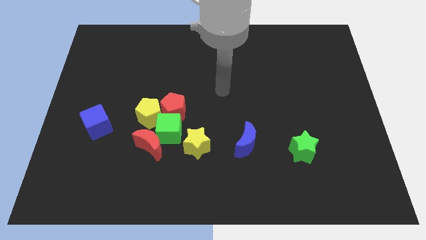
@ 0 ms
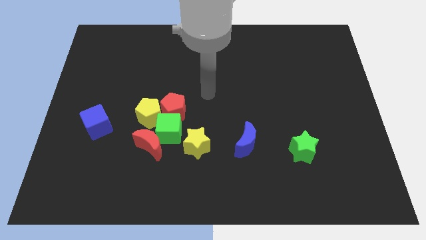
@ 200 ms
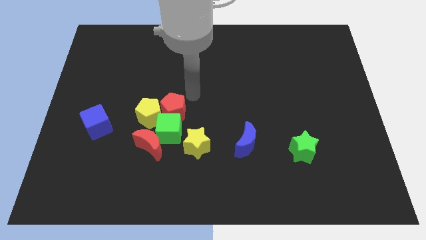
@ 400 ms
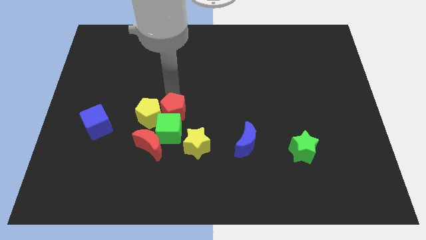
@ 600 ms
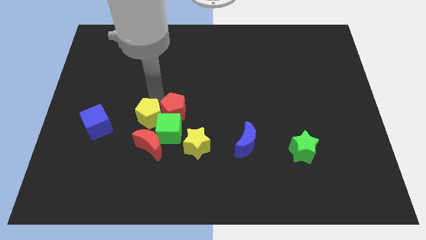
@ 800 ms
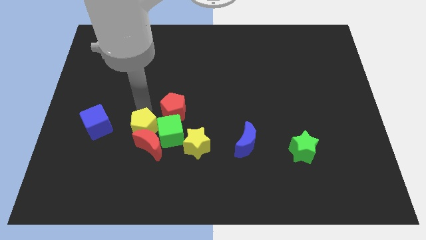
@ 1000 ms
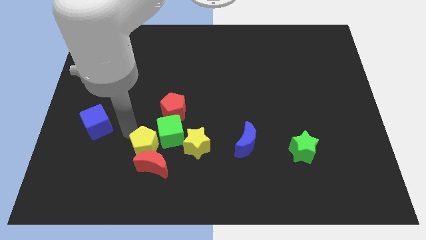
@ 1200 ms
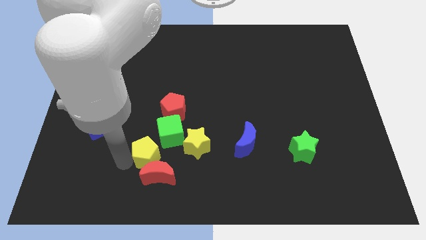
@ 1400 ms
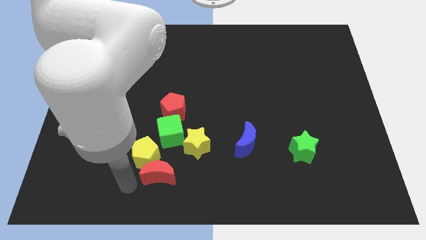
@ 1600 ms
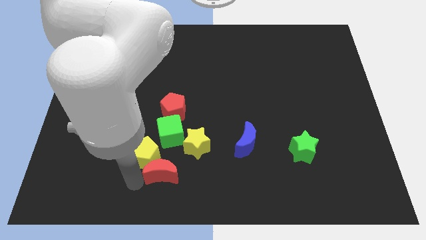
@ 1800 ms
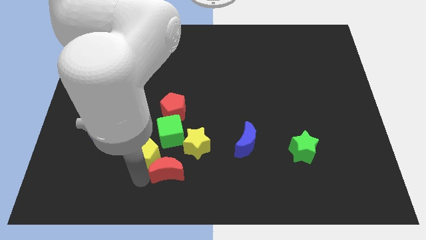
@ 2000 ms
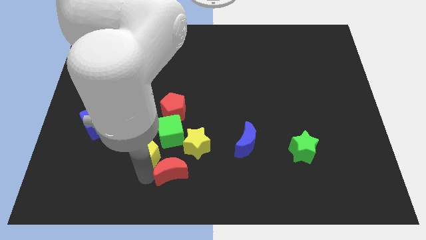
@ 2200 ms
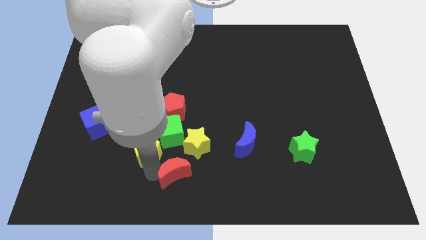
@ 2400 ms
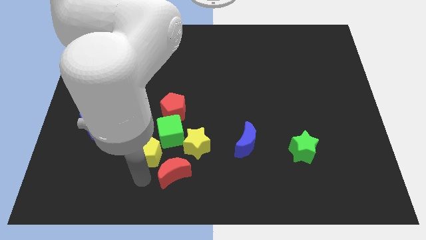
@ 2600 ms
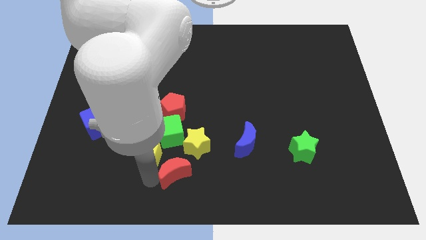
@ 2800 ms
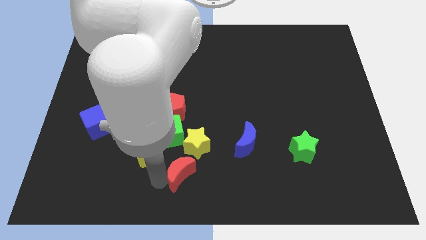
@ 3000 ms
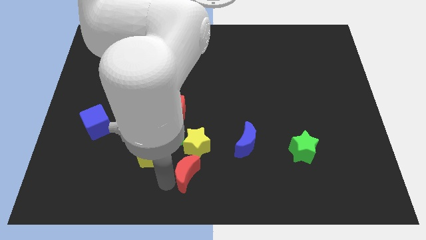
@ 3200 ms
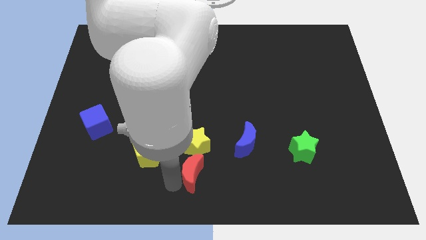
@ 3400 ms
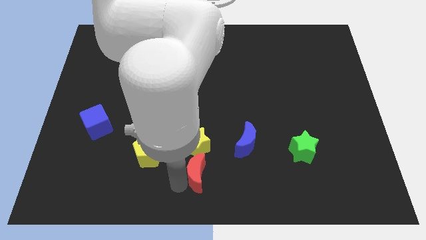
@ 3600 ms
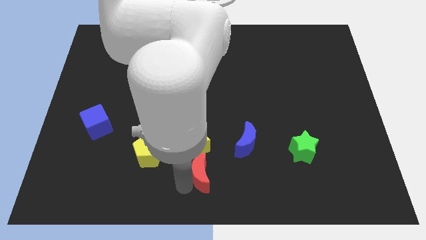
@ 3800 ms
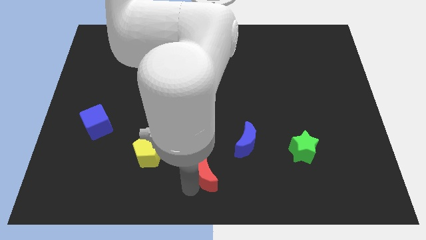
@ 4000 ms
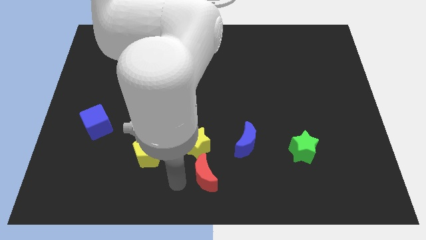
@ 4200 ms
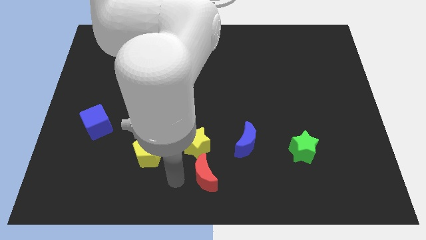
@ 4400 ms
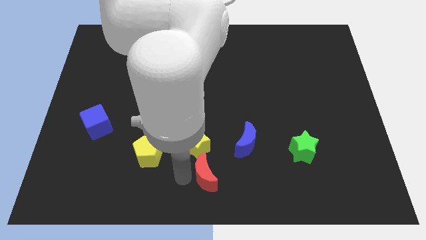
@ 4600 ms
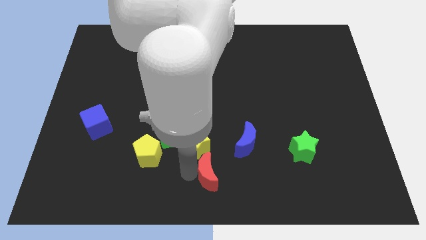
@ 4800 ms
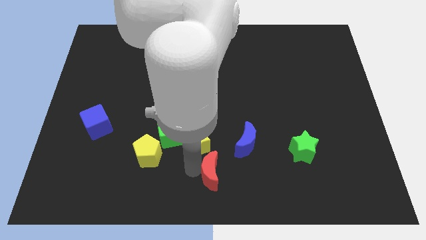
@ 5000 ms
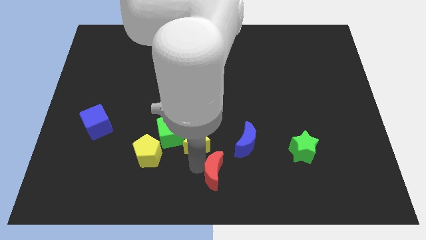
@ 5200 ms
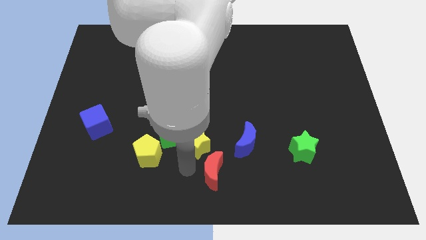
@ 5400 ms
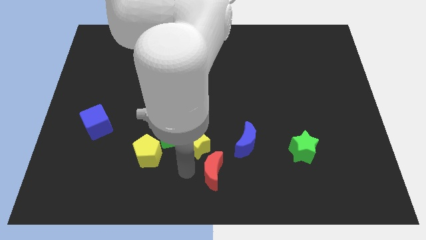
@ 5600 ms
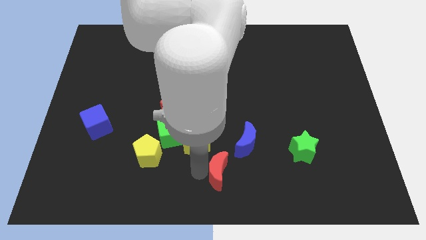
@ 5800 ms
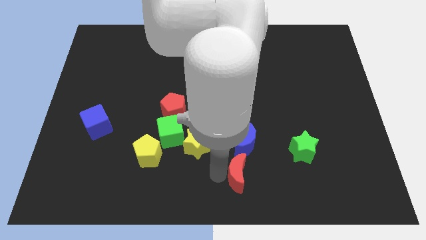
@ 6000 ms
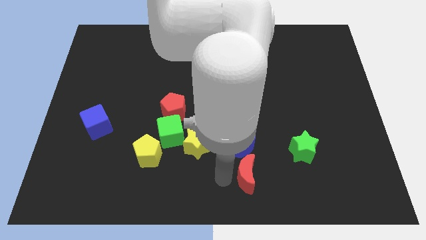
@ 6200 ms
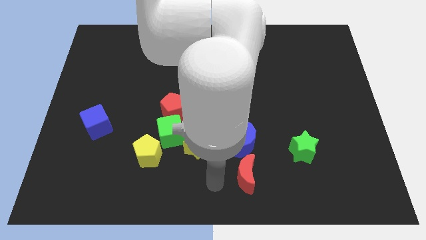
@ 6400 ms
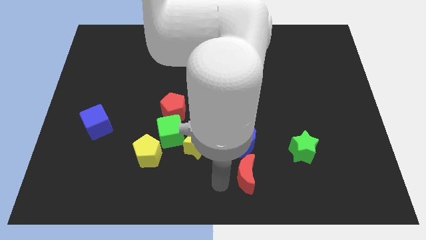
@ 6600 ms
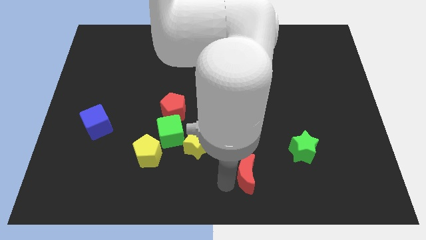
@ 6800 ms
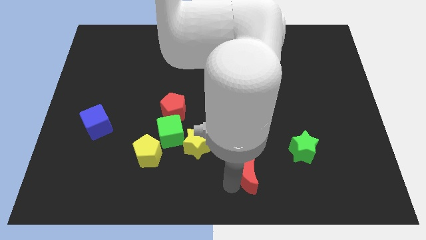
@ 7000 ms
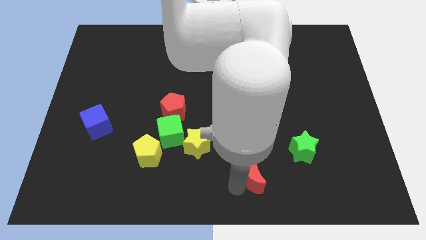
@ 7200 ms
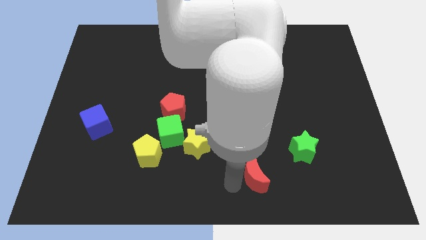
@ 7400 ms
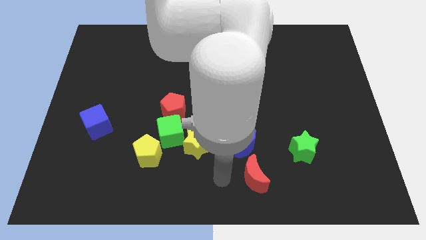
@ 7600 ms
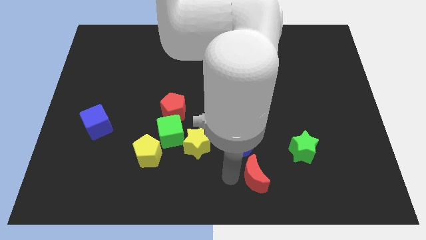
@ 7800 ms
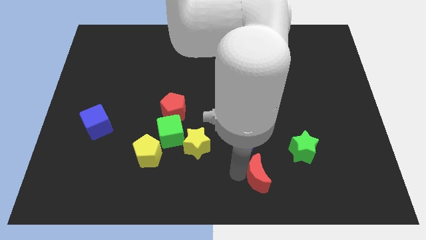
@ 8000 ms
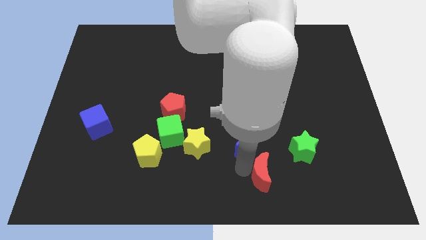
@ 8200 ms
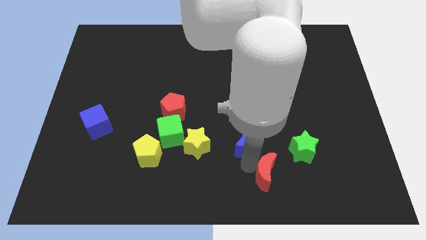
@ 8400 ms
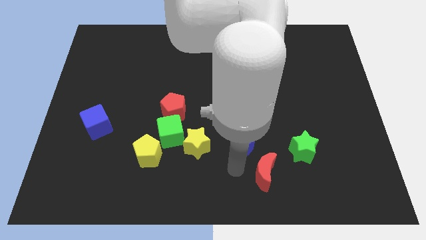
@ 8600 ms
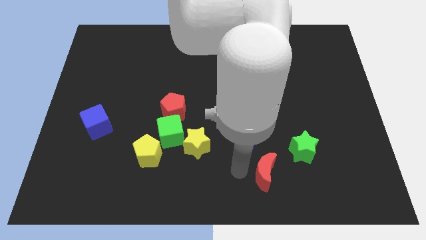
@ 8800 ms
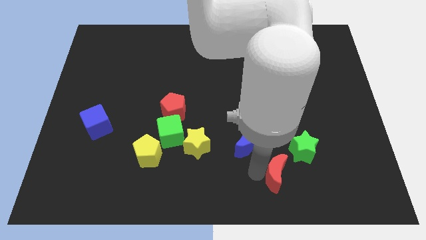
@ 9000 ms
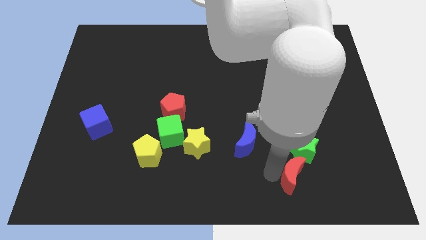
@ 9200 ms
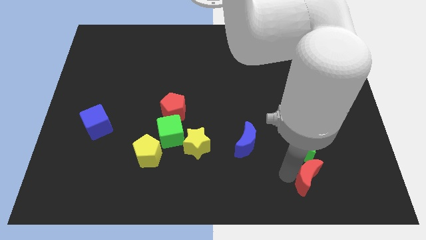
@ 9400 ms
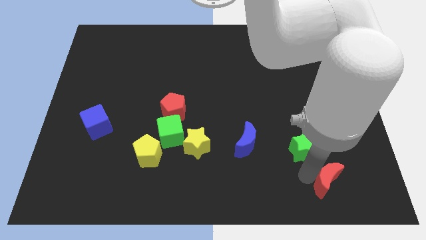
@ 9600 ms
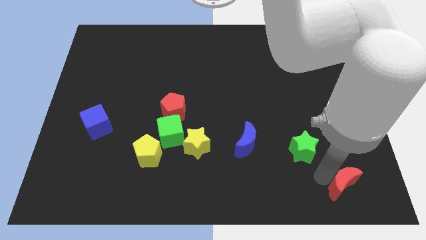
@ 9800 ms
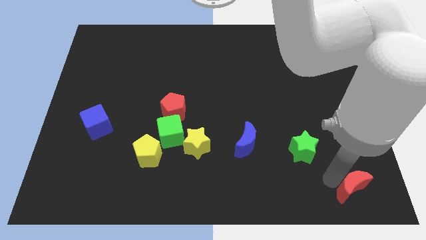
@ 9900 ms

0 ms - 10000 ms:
move the red moon to the bottom right corner

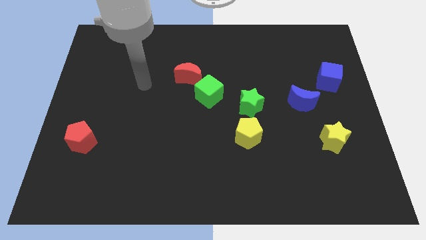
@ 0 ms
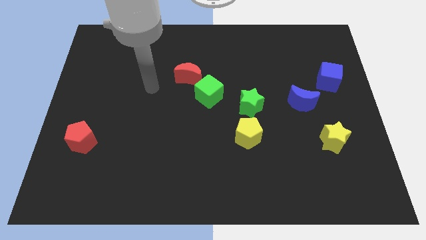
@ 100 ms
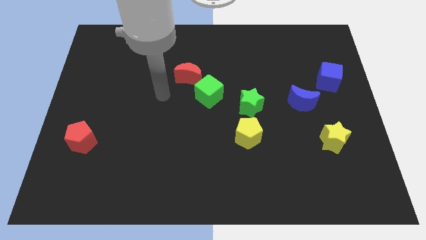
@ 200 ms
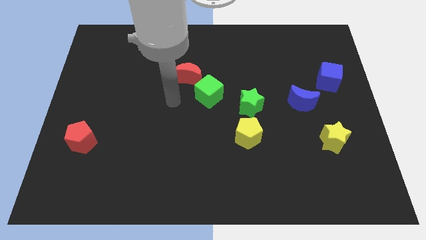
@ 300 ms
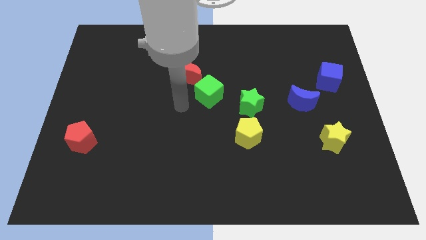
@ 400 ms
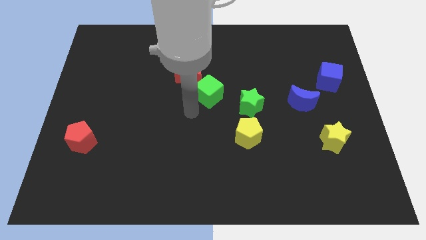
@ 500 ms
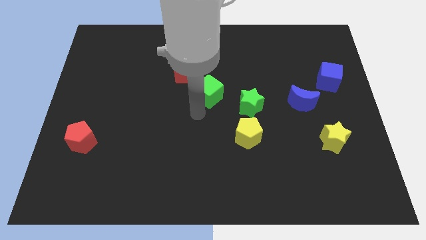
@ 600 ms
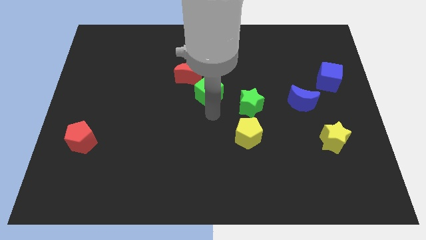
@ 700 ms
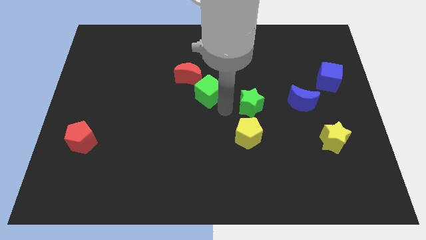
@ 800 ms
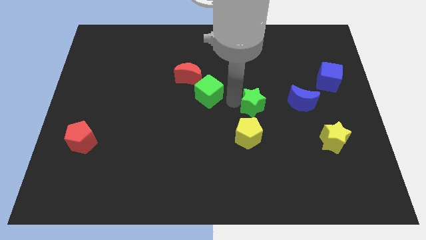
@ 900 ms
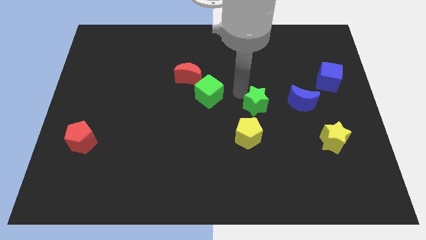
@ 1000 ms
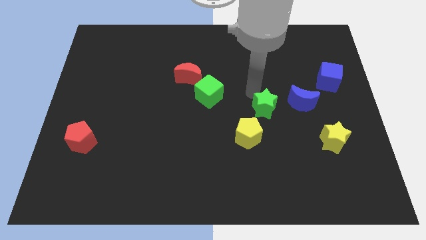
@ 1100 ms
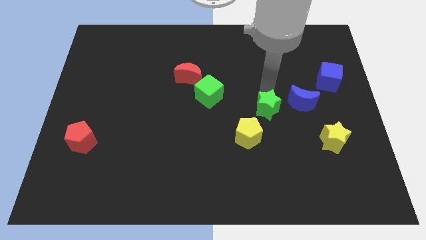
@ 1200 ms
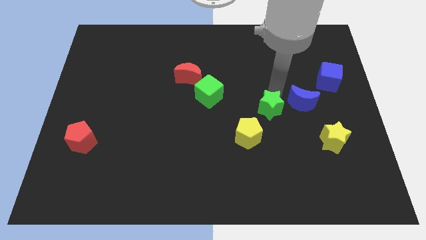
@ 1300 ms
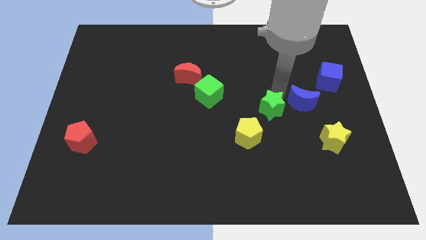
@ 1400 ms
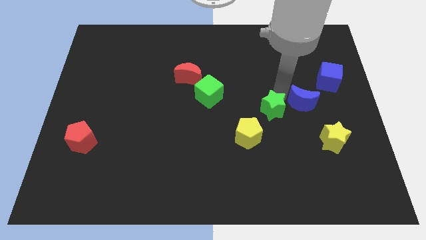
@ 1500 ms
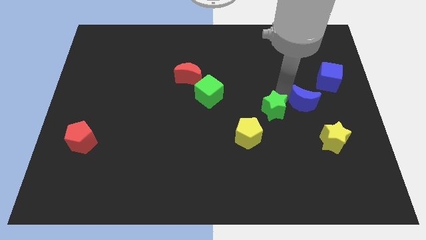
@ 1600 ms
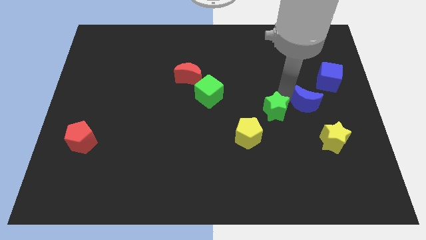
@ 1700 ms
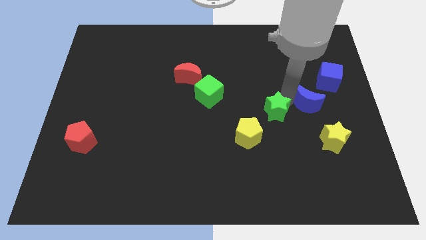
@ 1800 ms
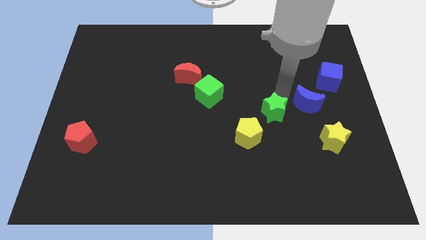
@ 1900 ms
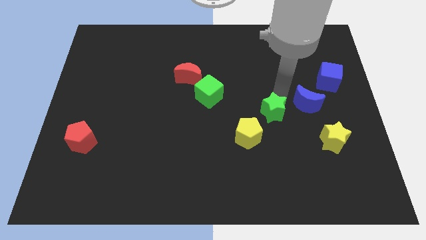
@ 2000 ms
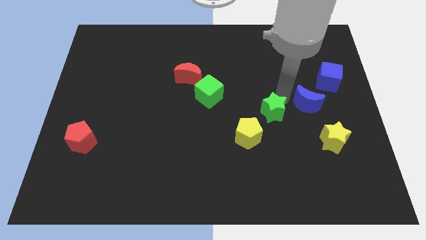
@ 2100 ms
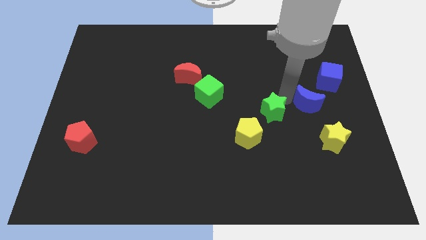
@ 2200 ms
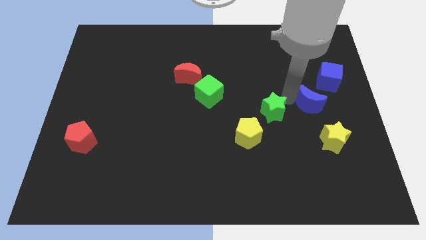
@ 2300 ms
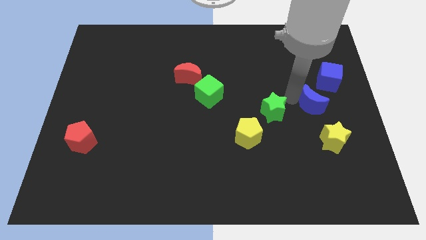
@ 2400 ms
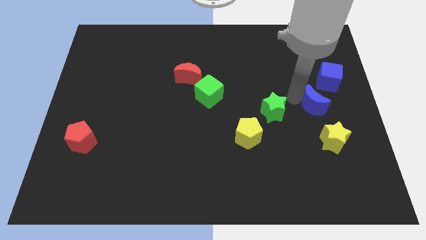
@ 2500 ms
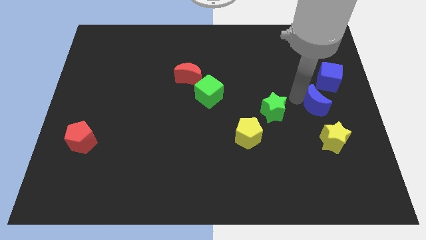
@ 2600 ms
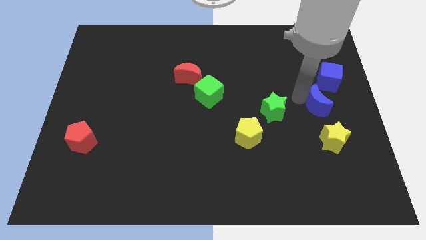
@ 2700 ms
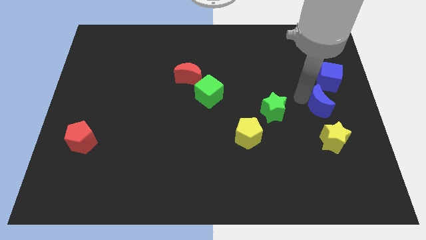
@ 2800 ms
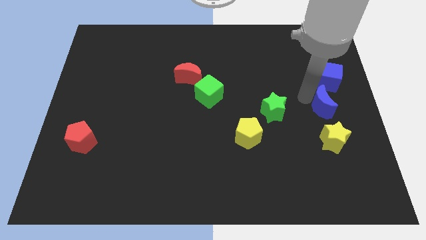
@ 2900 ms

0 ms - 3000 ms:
slide the blue moon to the center right
